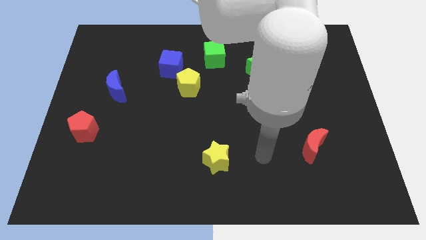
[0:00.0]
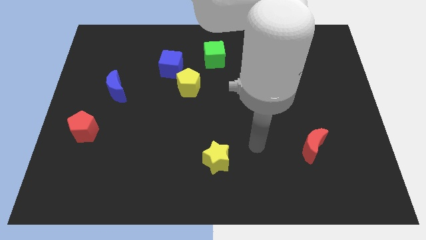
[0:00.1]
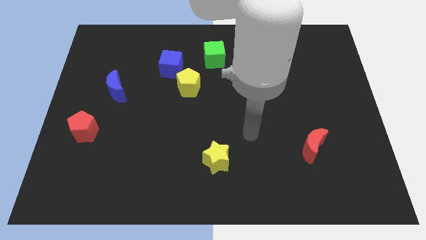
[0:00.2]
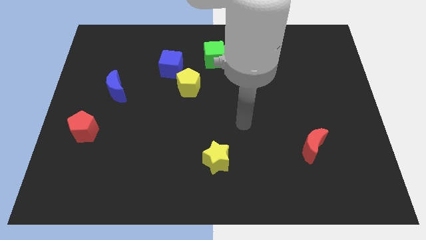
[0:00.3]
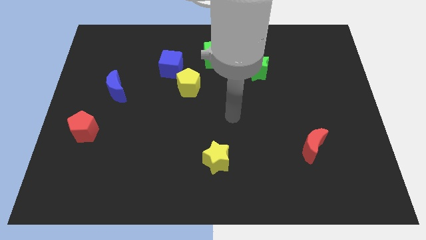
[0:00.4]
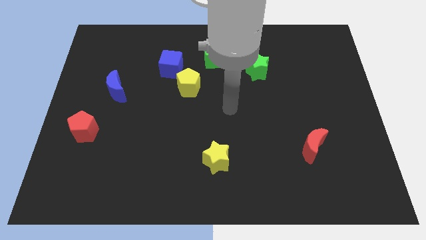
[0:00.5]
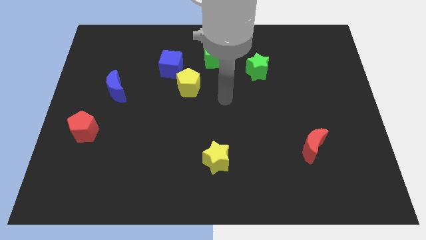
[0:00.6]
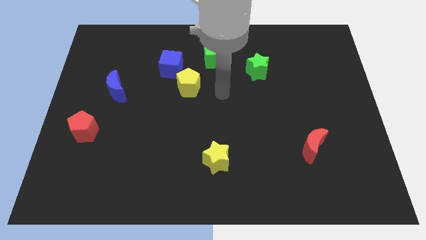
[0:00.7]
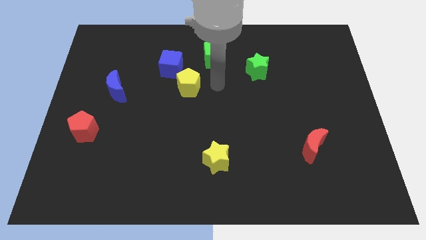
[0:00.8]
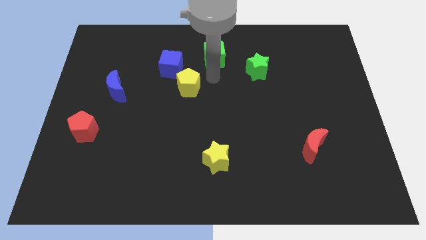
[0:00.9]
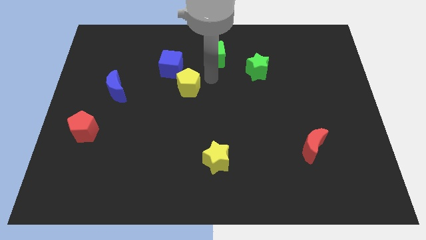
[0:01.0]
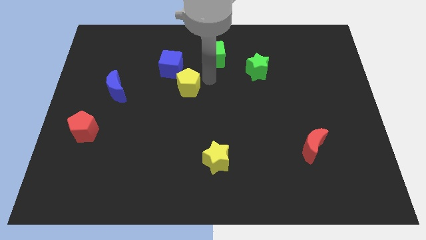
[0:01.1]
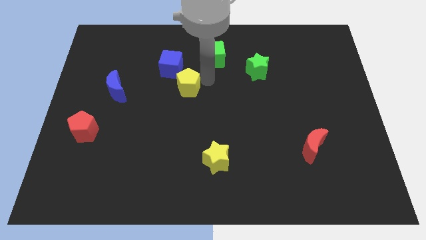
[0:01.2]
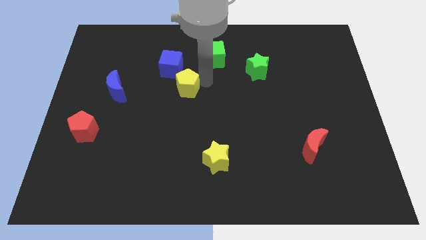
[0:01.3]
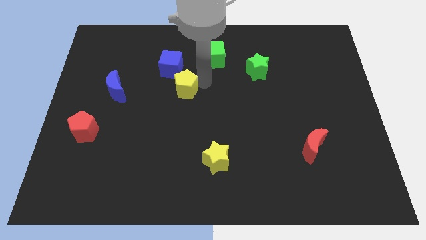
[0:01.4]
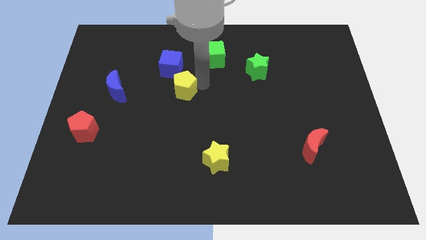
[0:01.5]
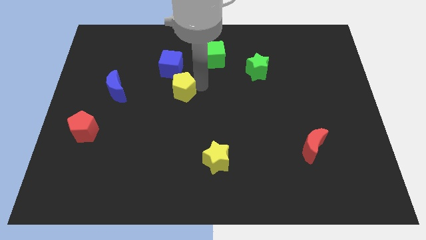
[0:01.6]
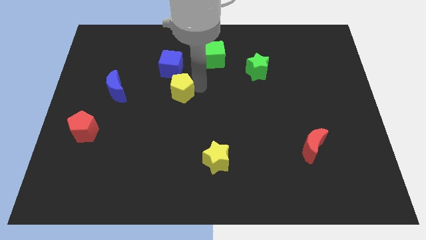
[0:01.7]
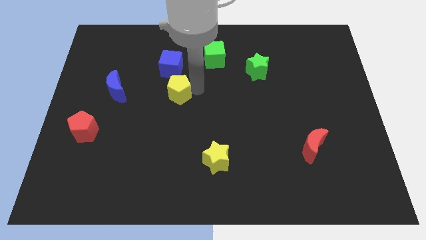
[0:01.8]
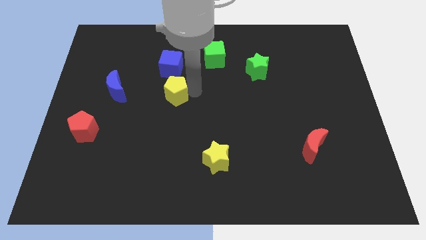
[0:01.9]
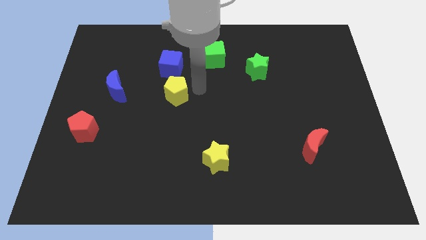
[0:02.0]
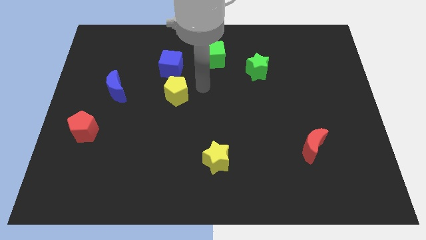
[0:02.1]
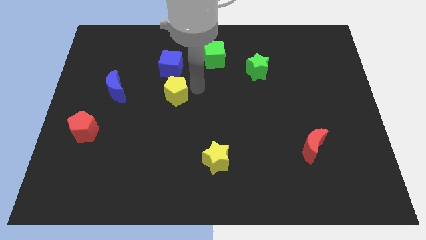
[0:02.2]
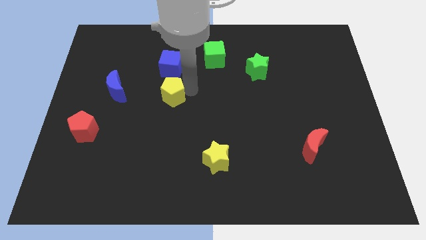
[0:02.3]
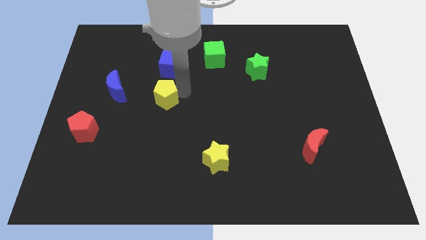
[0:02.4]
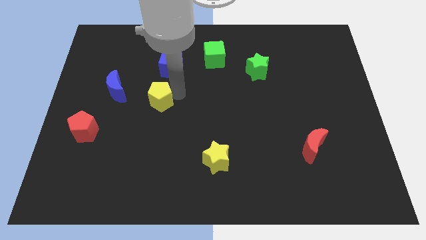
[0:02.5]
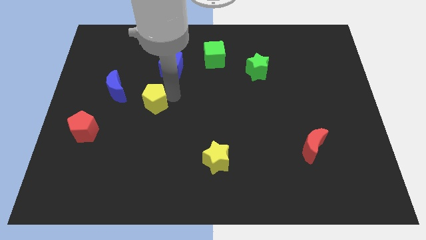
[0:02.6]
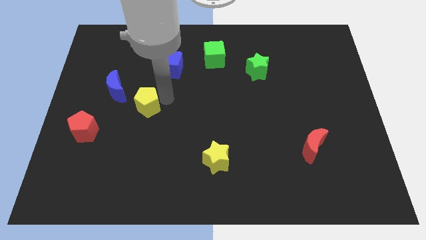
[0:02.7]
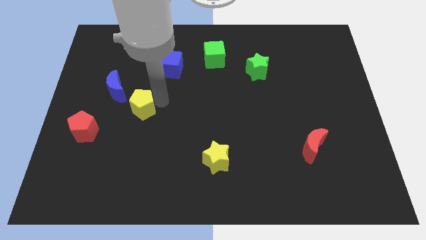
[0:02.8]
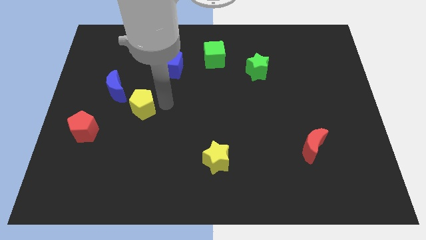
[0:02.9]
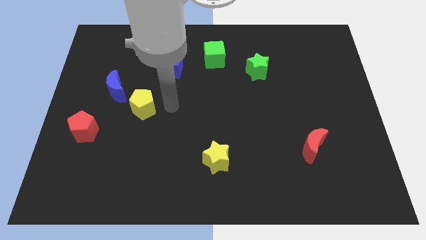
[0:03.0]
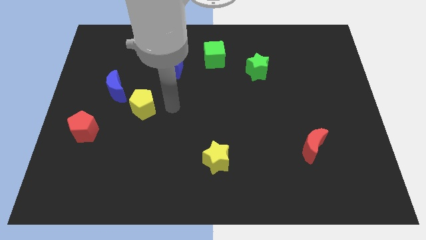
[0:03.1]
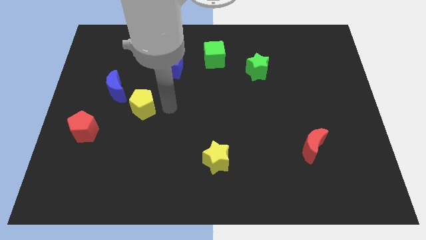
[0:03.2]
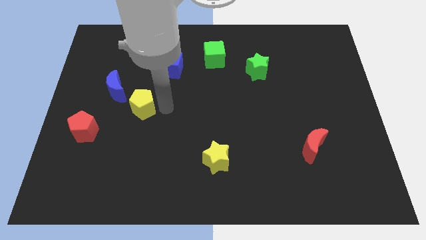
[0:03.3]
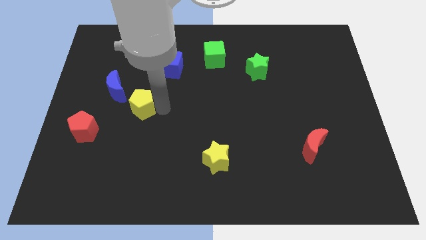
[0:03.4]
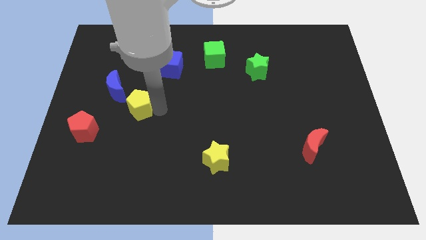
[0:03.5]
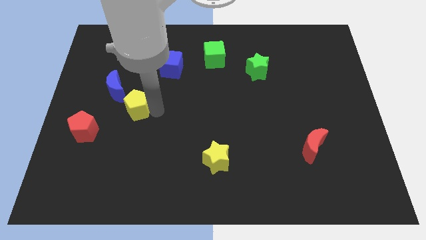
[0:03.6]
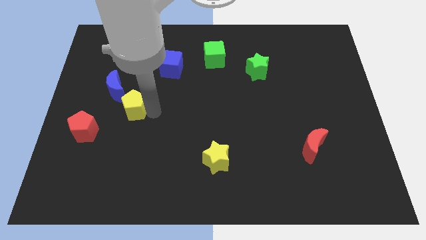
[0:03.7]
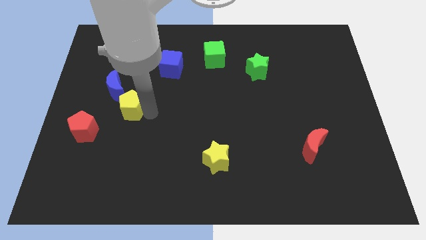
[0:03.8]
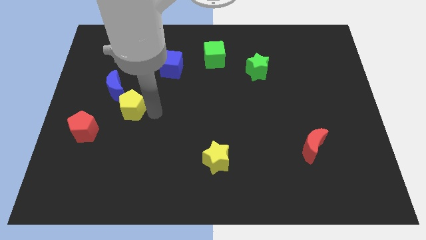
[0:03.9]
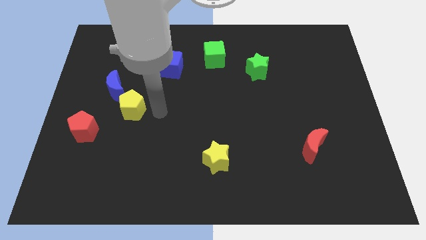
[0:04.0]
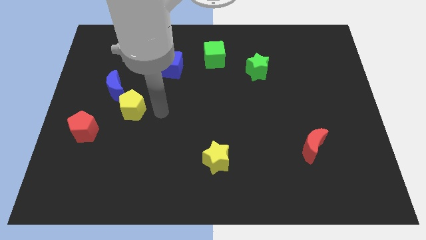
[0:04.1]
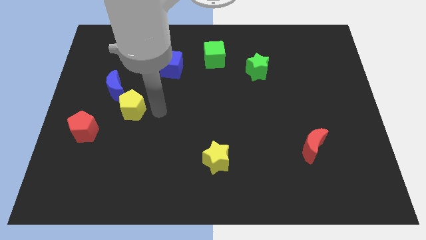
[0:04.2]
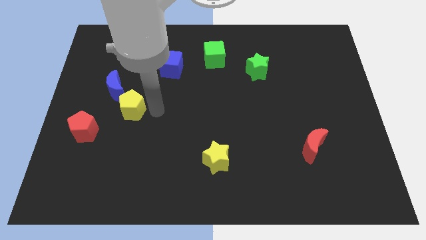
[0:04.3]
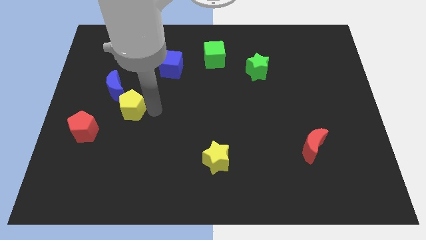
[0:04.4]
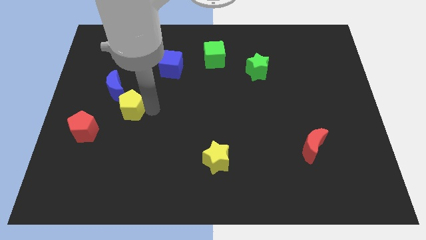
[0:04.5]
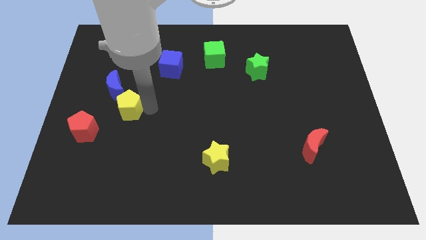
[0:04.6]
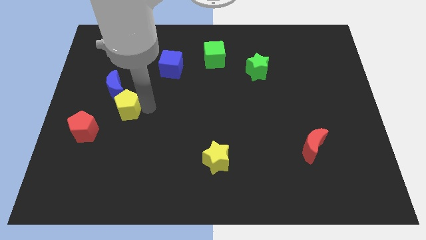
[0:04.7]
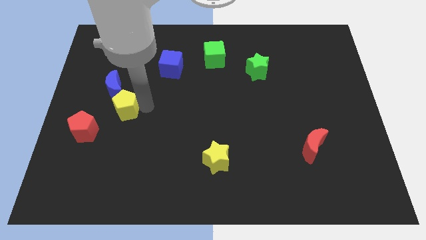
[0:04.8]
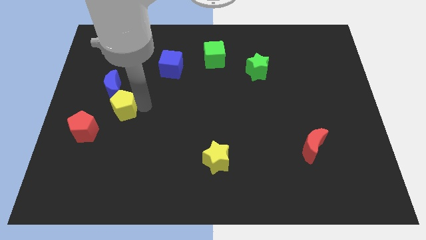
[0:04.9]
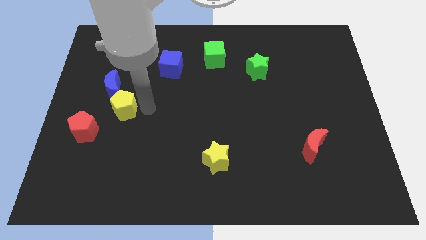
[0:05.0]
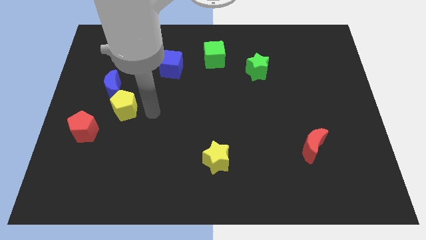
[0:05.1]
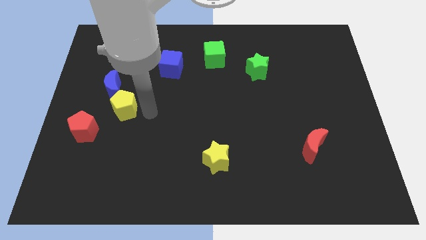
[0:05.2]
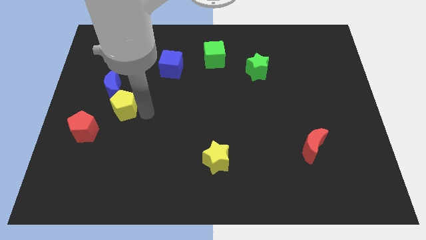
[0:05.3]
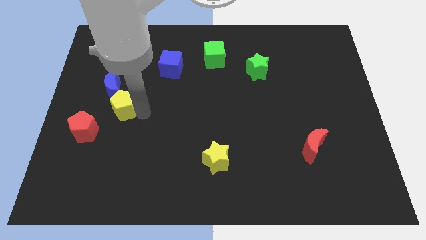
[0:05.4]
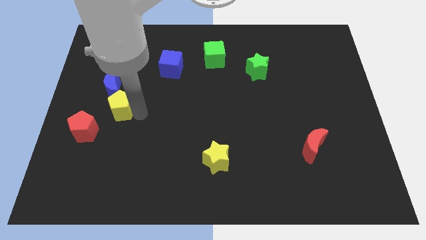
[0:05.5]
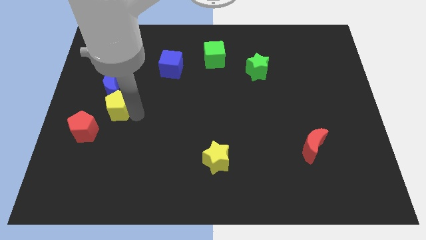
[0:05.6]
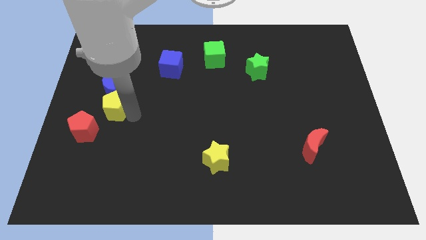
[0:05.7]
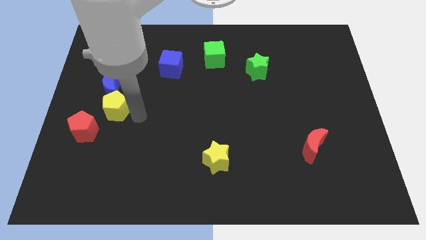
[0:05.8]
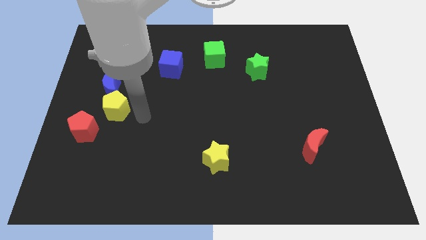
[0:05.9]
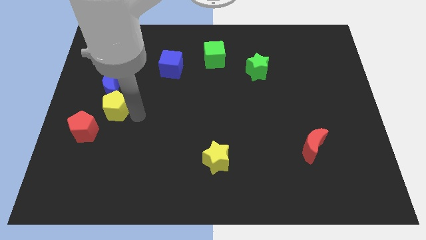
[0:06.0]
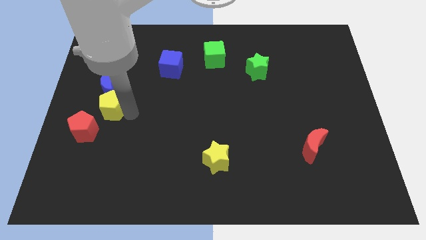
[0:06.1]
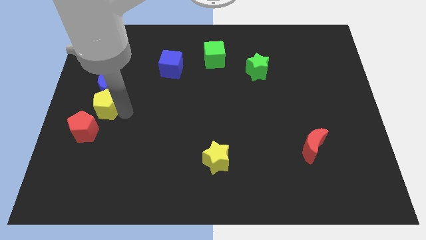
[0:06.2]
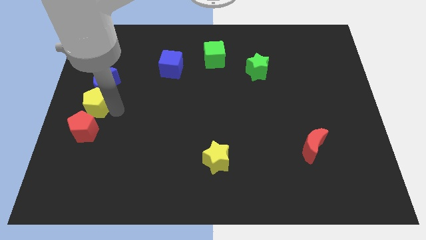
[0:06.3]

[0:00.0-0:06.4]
put the yellow pentagon to the left side of the board
